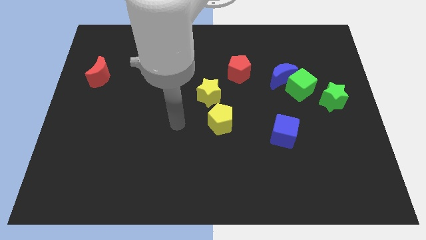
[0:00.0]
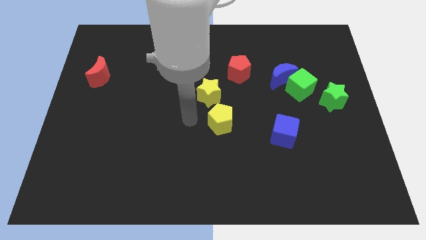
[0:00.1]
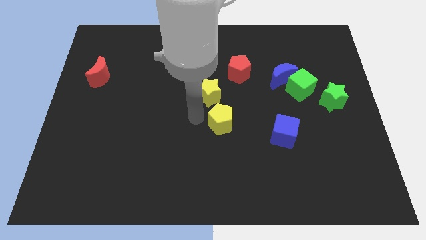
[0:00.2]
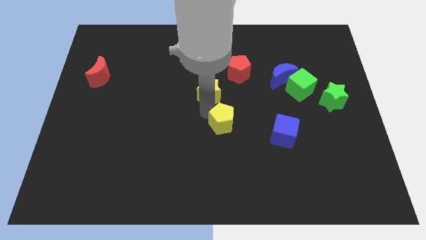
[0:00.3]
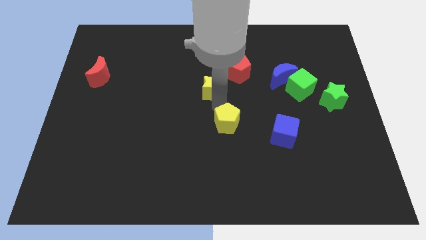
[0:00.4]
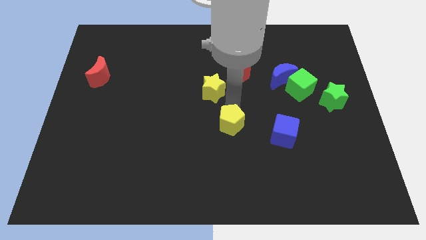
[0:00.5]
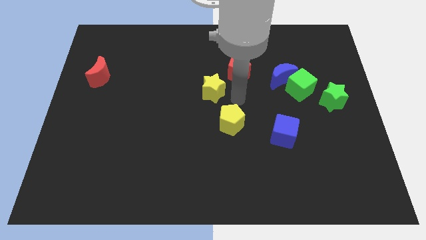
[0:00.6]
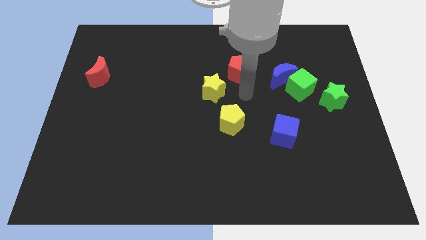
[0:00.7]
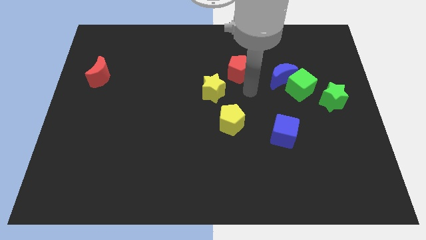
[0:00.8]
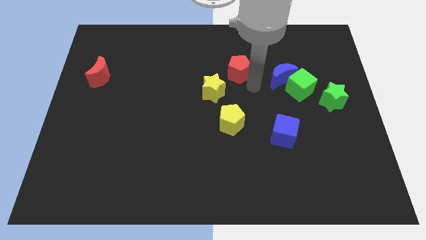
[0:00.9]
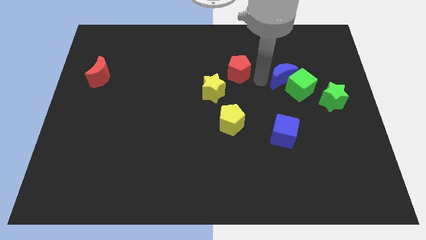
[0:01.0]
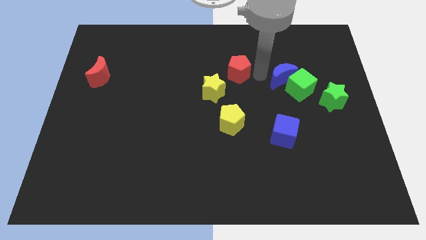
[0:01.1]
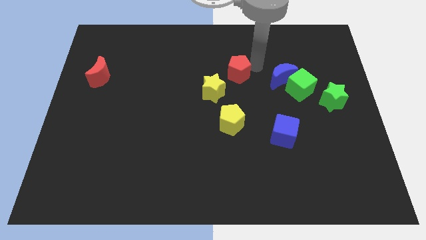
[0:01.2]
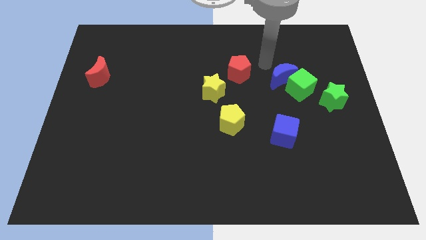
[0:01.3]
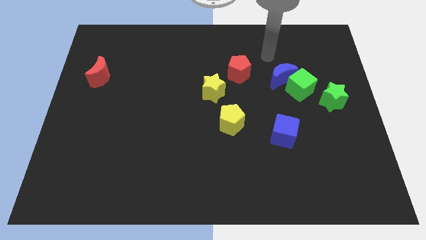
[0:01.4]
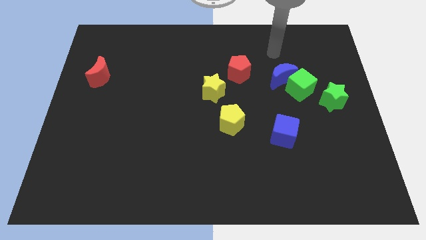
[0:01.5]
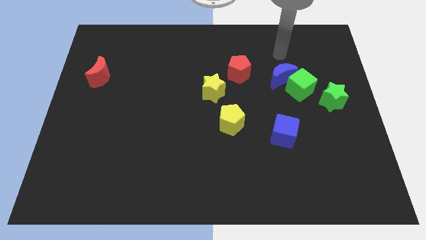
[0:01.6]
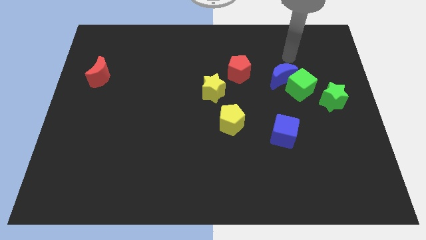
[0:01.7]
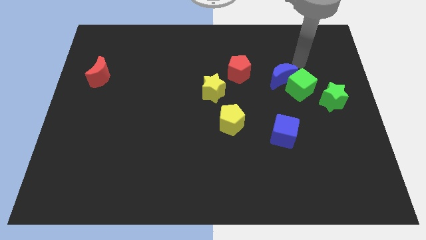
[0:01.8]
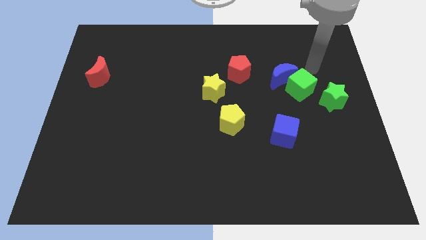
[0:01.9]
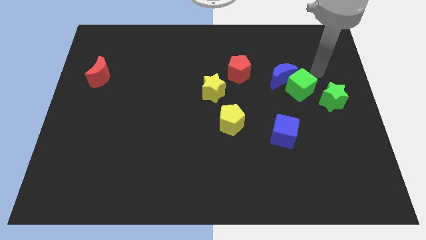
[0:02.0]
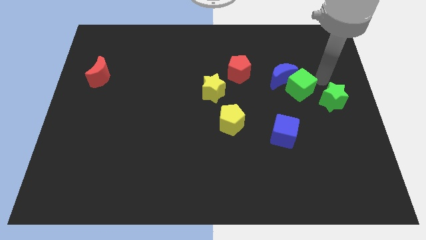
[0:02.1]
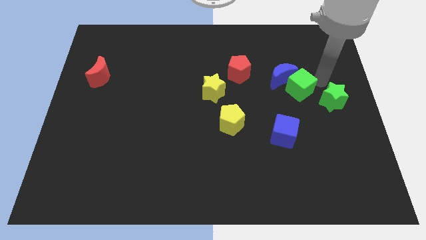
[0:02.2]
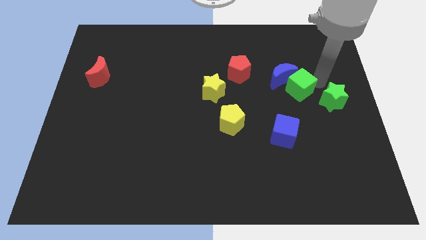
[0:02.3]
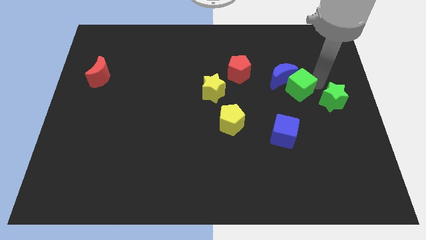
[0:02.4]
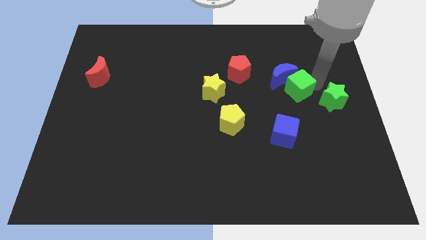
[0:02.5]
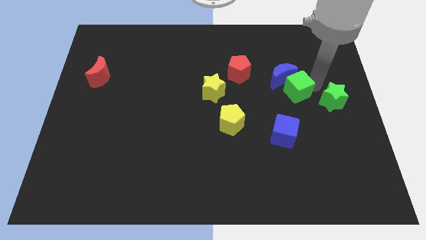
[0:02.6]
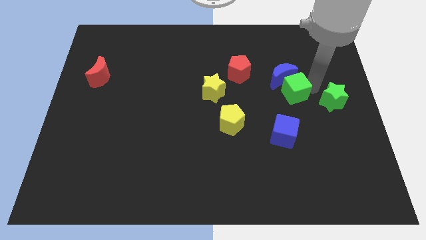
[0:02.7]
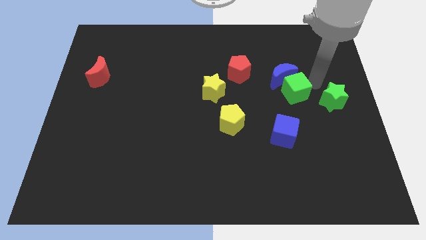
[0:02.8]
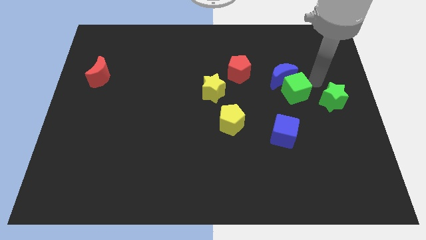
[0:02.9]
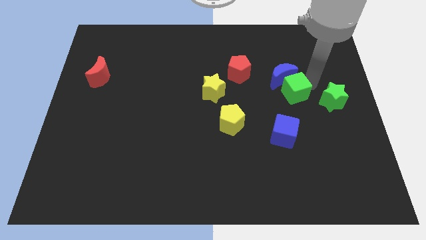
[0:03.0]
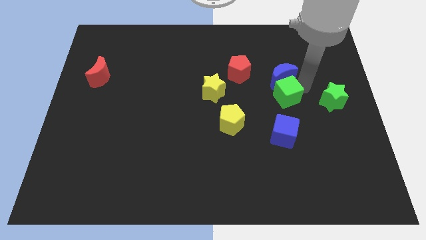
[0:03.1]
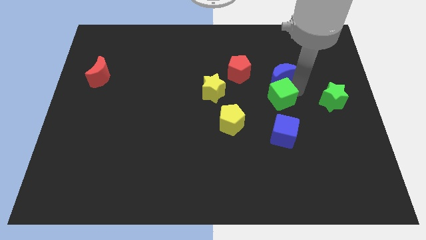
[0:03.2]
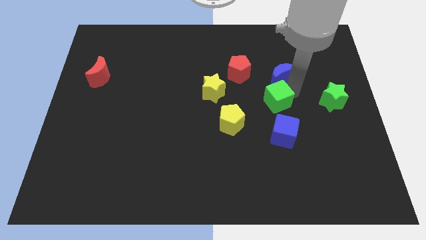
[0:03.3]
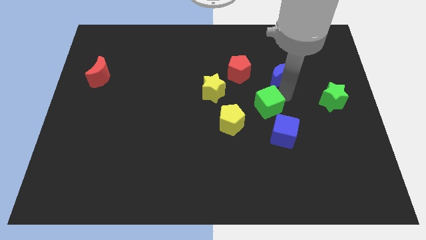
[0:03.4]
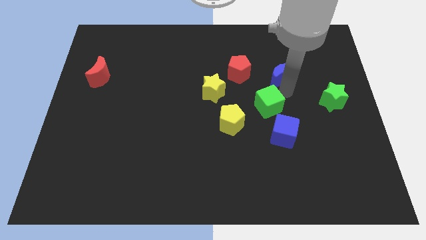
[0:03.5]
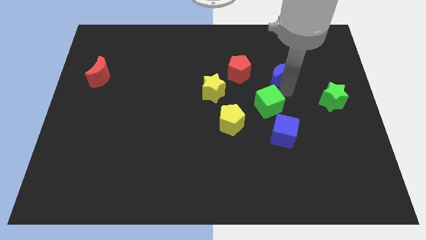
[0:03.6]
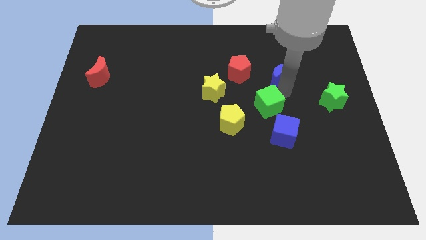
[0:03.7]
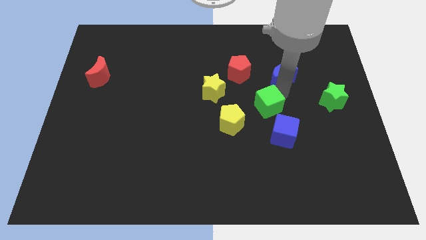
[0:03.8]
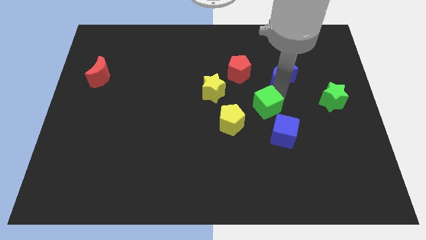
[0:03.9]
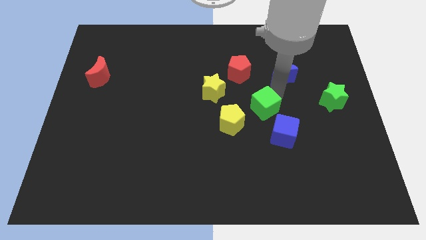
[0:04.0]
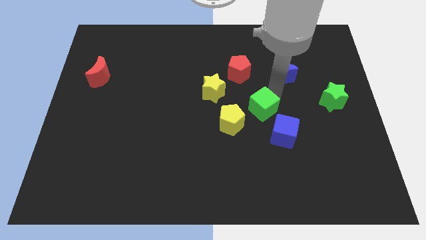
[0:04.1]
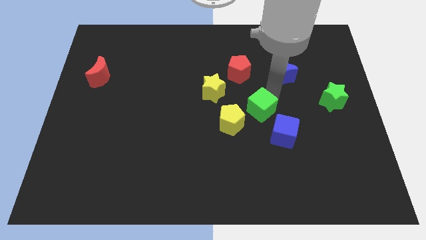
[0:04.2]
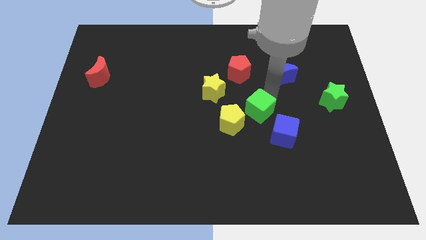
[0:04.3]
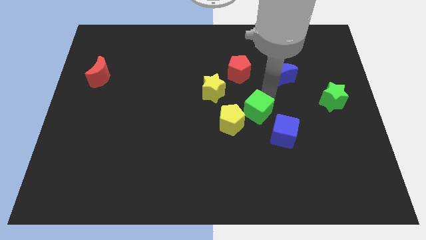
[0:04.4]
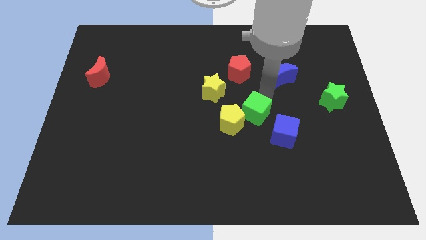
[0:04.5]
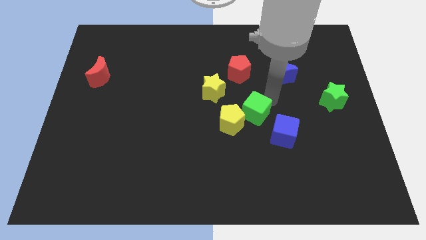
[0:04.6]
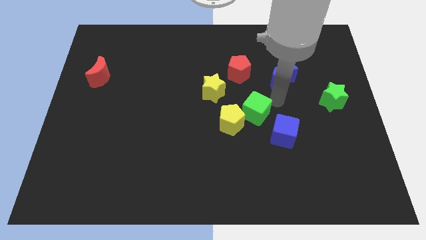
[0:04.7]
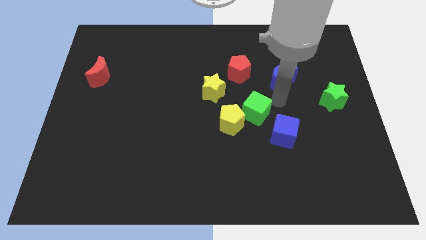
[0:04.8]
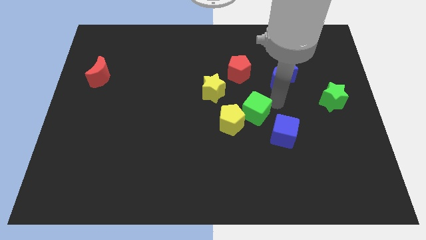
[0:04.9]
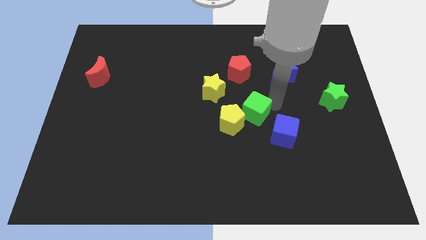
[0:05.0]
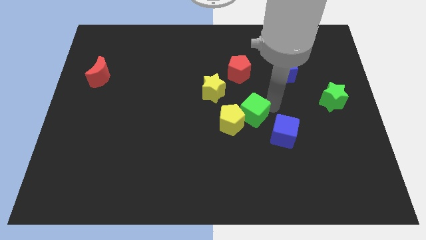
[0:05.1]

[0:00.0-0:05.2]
slide the green cube towards the yellow pentagon

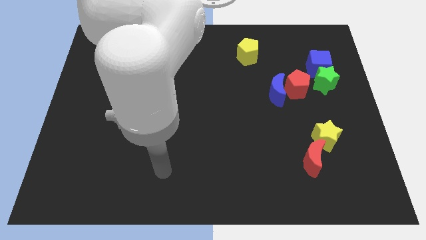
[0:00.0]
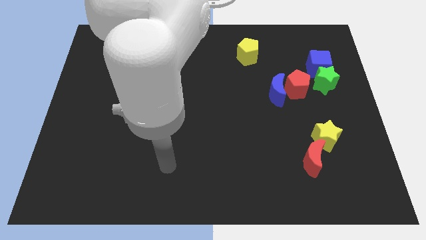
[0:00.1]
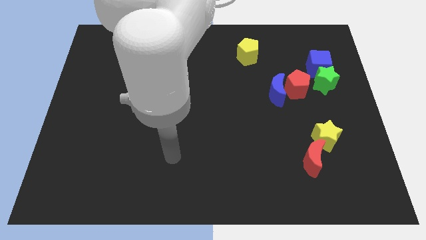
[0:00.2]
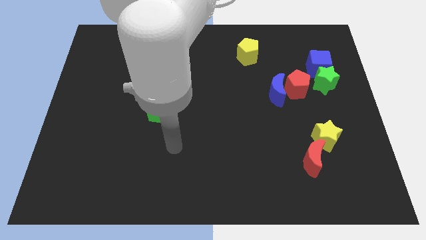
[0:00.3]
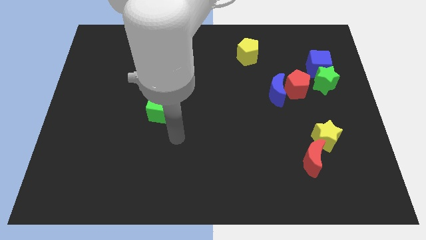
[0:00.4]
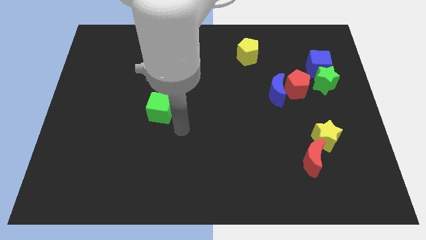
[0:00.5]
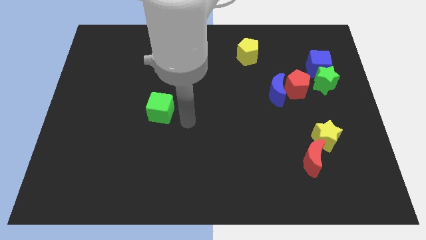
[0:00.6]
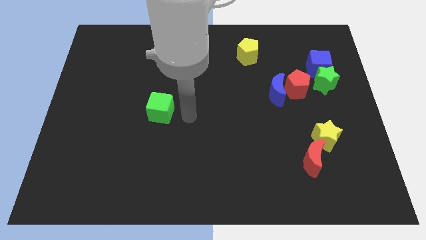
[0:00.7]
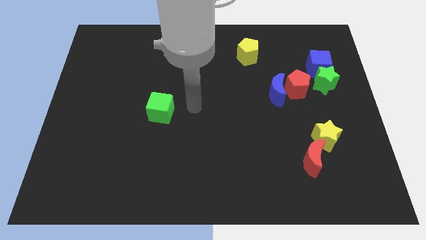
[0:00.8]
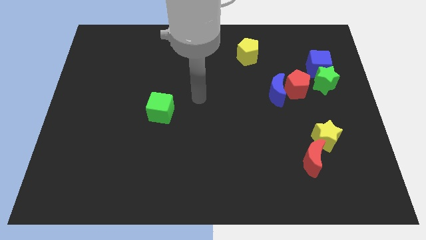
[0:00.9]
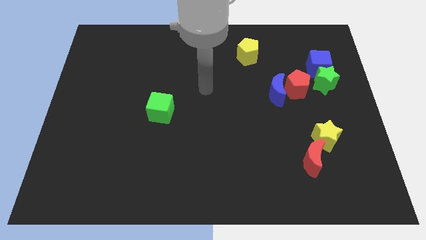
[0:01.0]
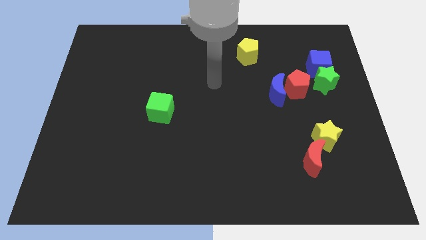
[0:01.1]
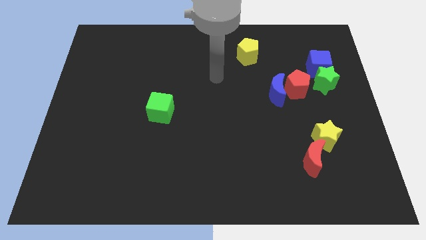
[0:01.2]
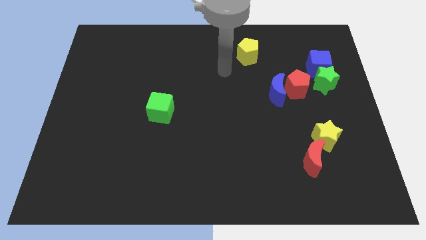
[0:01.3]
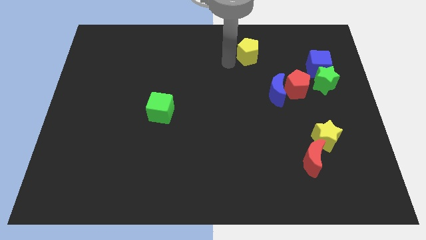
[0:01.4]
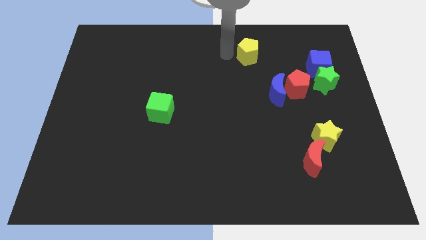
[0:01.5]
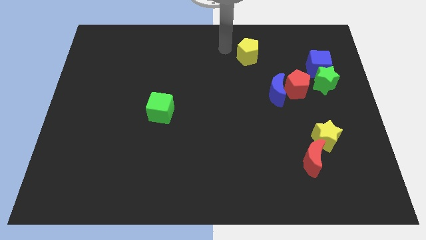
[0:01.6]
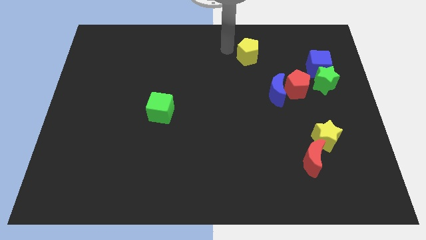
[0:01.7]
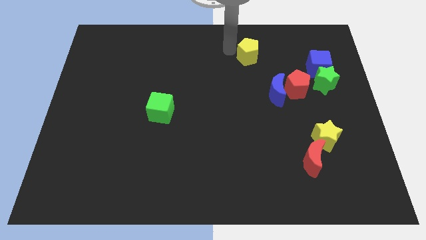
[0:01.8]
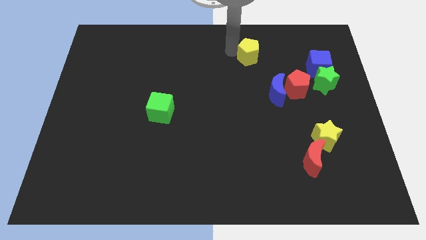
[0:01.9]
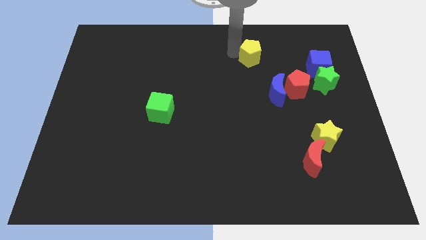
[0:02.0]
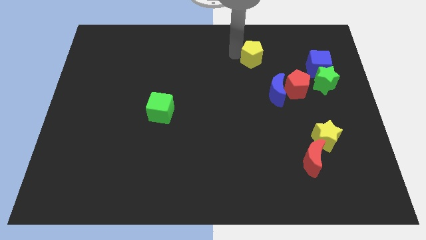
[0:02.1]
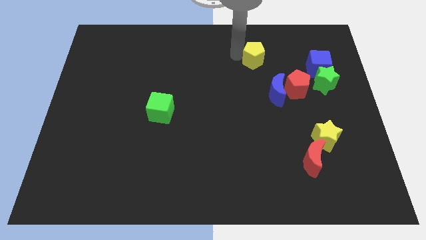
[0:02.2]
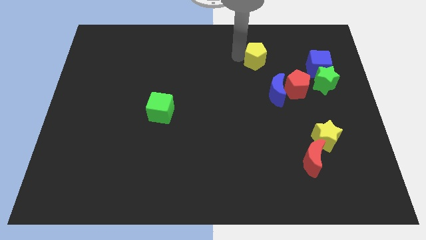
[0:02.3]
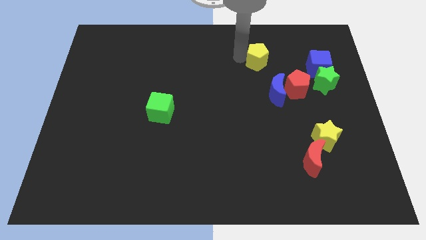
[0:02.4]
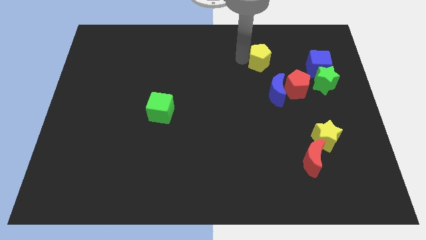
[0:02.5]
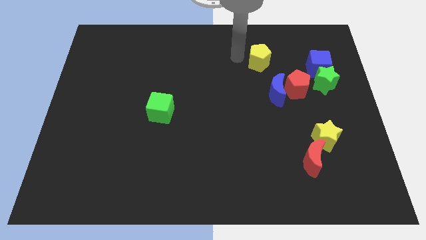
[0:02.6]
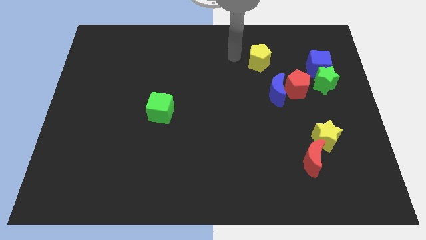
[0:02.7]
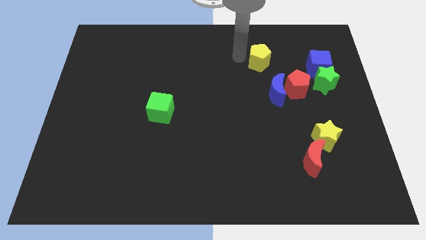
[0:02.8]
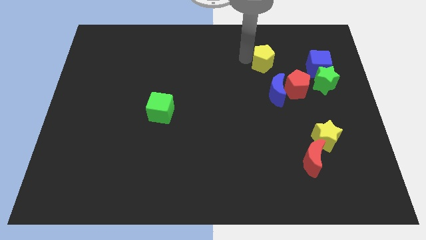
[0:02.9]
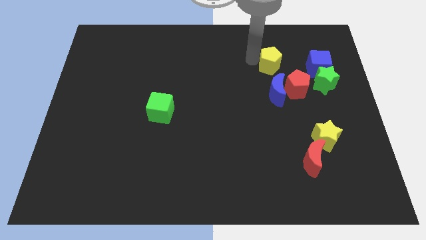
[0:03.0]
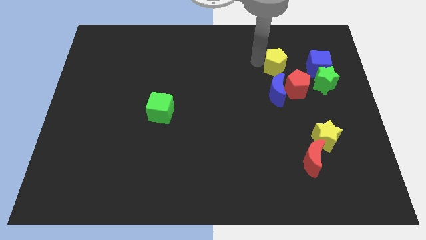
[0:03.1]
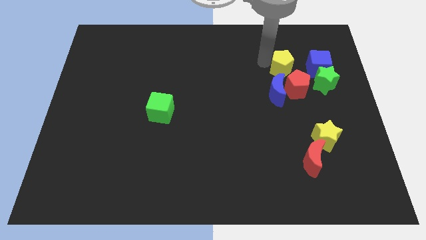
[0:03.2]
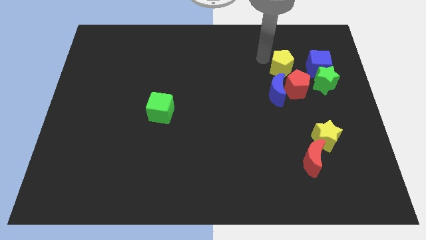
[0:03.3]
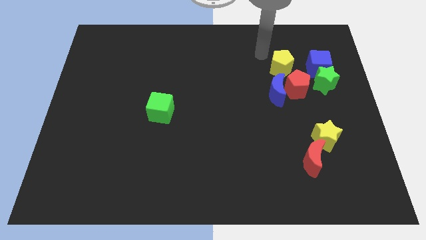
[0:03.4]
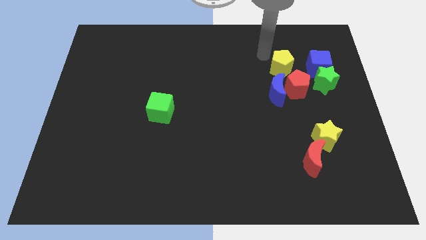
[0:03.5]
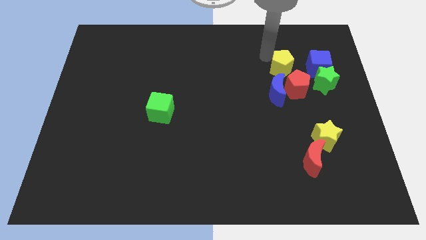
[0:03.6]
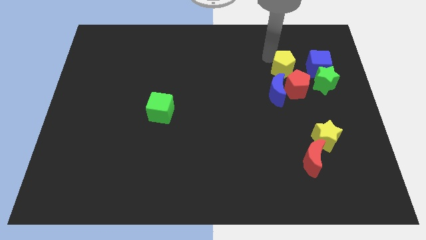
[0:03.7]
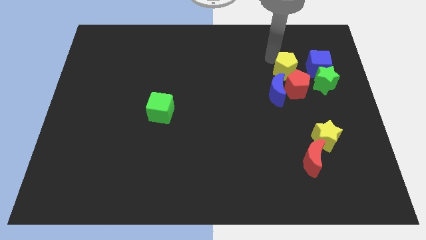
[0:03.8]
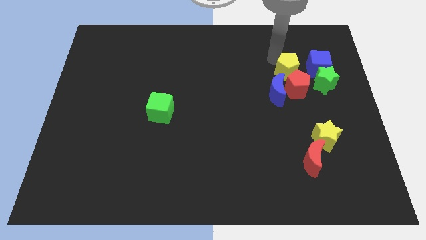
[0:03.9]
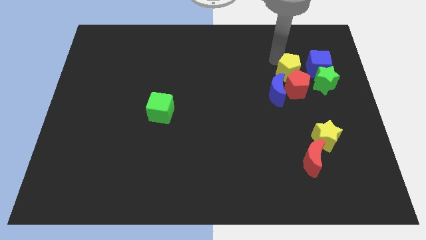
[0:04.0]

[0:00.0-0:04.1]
push the yellow pentagon next to the red pentagon
